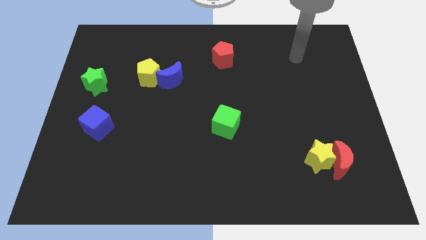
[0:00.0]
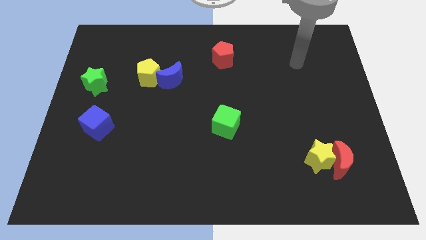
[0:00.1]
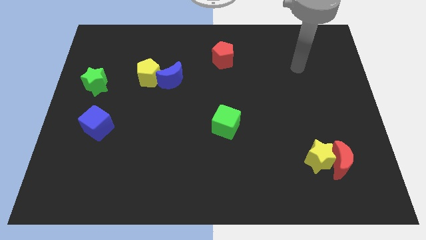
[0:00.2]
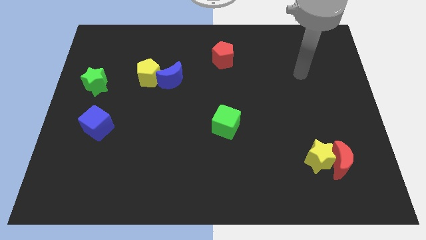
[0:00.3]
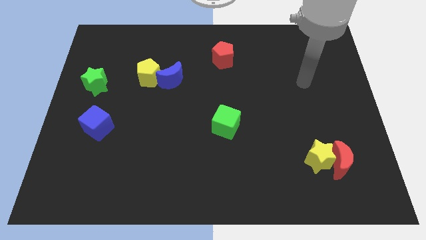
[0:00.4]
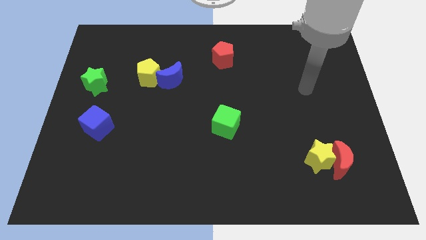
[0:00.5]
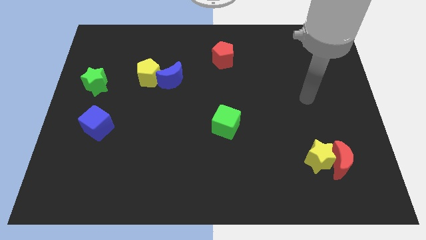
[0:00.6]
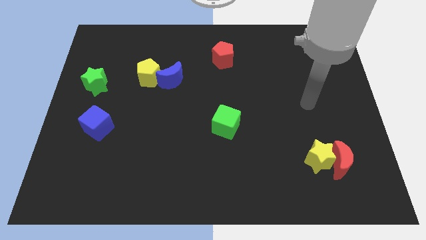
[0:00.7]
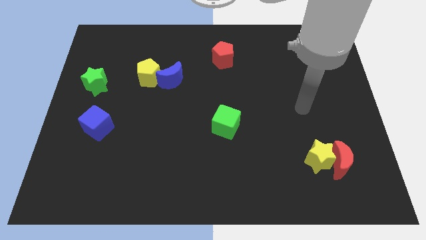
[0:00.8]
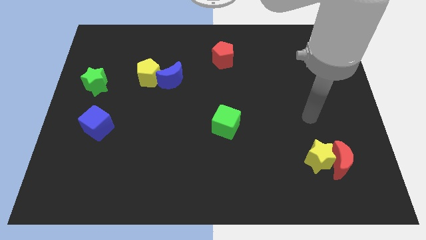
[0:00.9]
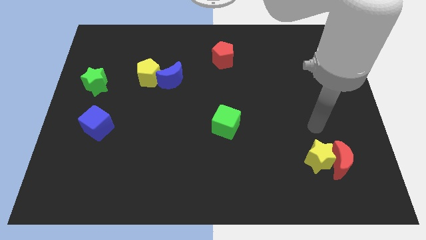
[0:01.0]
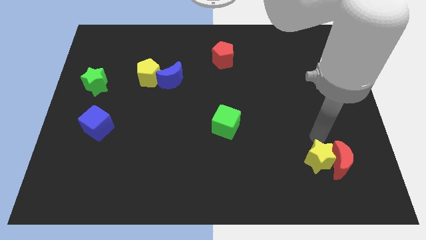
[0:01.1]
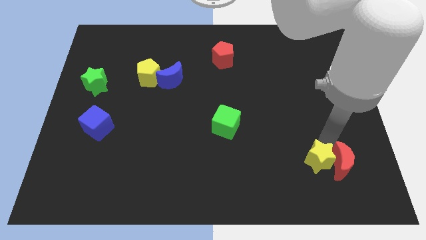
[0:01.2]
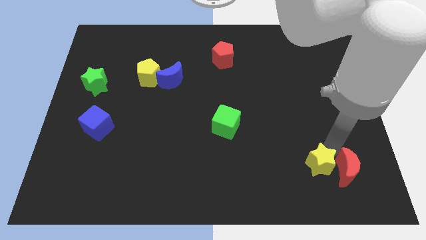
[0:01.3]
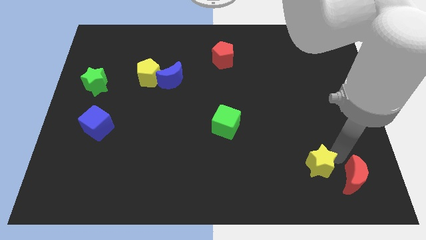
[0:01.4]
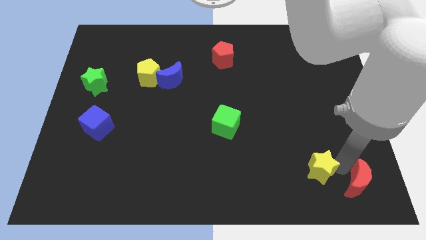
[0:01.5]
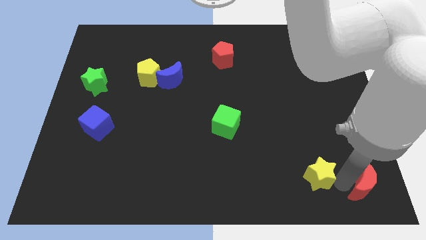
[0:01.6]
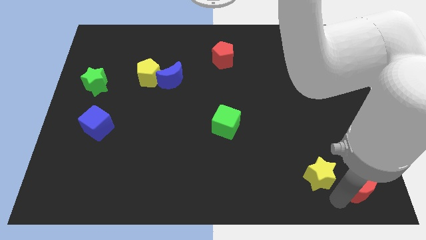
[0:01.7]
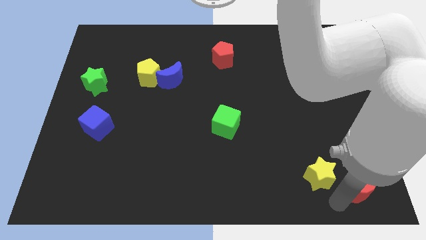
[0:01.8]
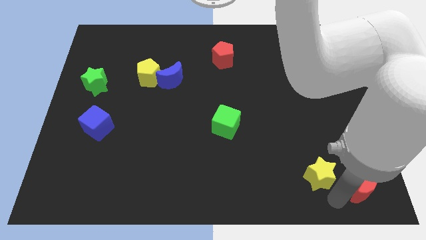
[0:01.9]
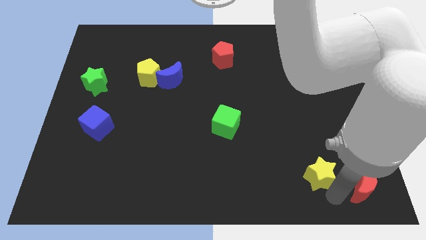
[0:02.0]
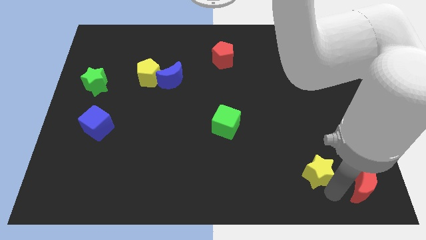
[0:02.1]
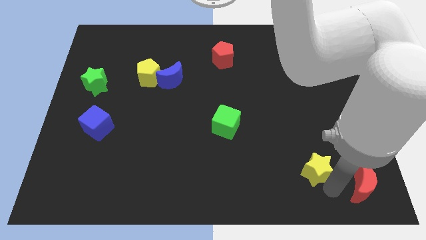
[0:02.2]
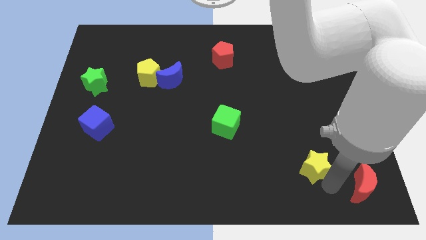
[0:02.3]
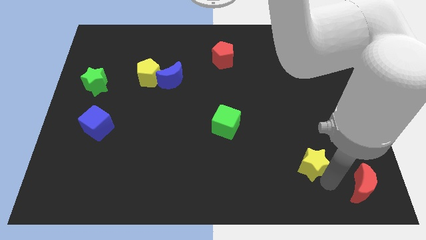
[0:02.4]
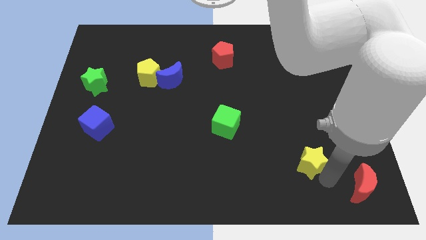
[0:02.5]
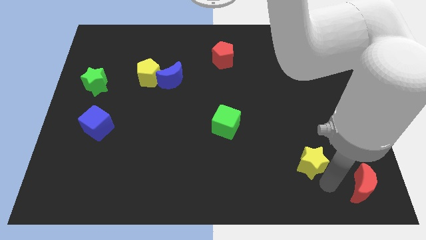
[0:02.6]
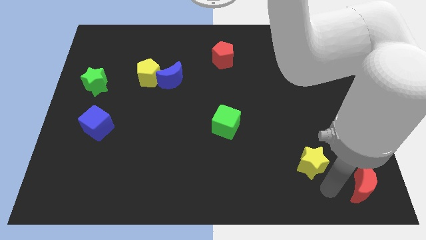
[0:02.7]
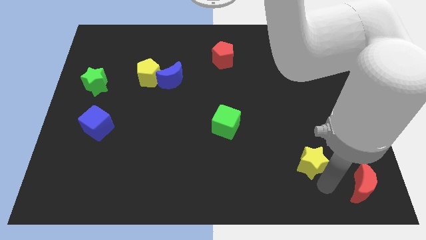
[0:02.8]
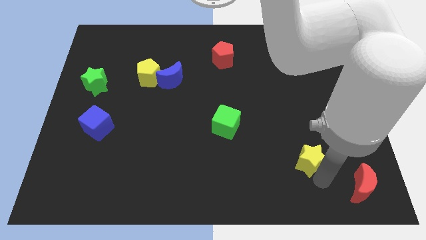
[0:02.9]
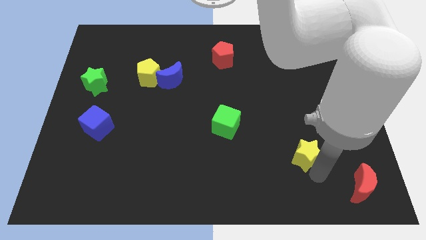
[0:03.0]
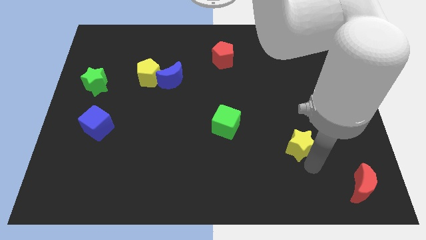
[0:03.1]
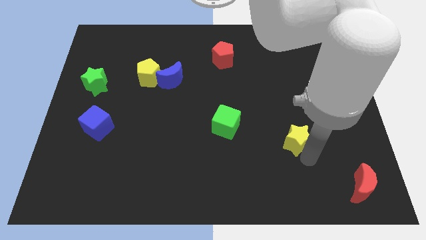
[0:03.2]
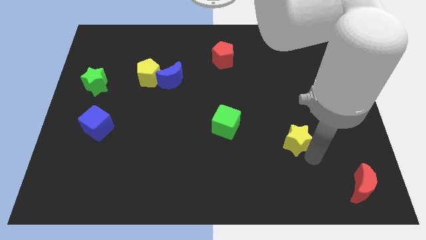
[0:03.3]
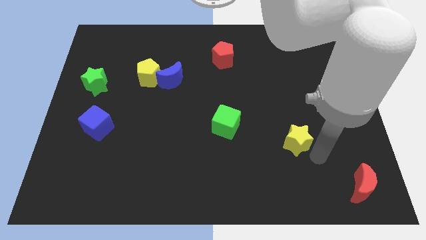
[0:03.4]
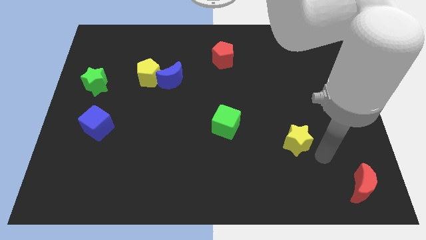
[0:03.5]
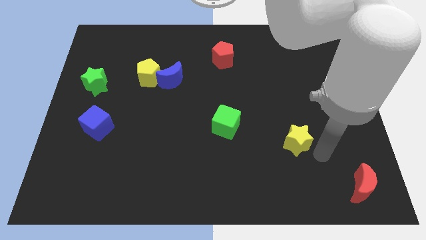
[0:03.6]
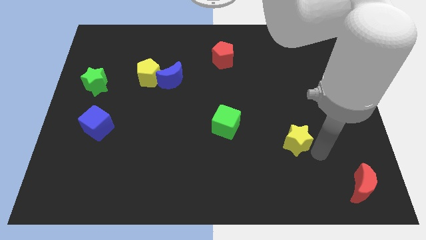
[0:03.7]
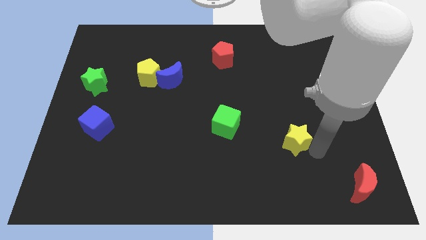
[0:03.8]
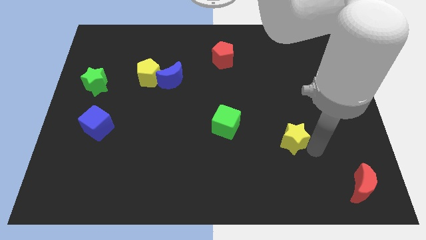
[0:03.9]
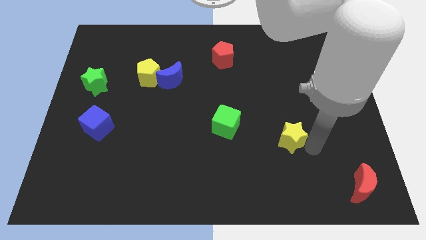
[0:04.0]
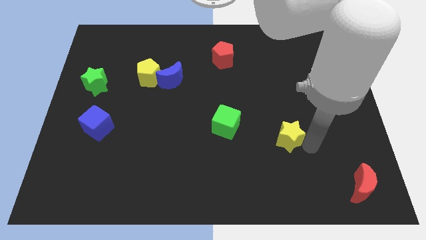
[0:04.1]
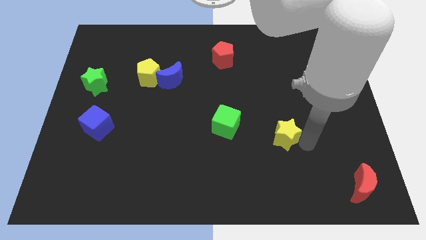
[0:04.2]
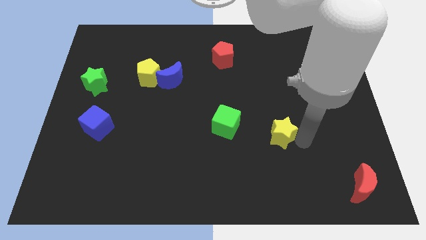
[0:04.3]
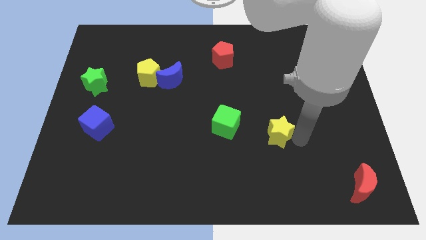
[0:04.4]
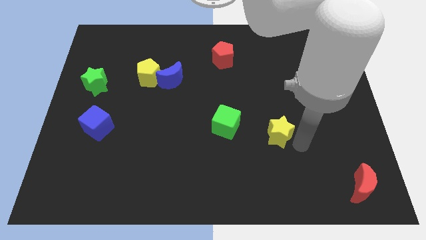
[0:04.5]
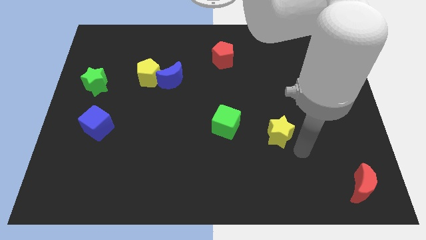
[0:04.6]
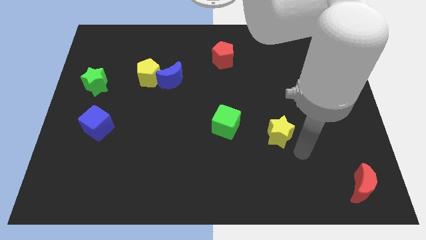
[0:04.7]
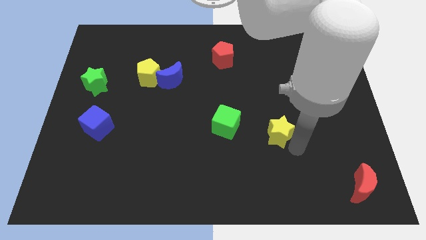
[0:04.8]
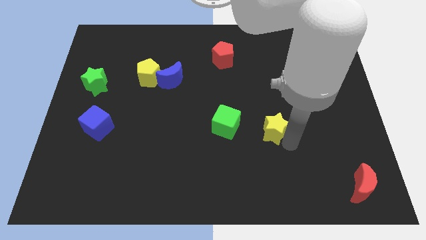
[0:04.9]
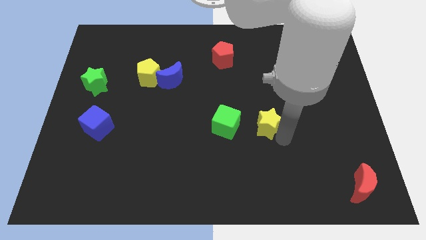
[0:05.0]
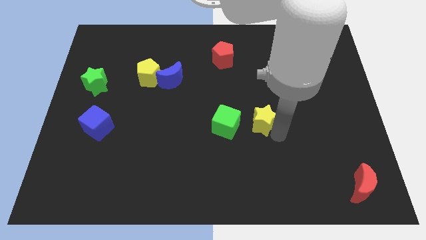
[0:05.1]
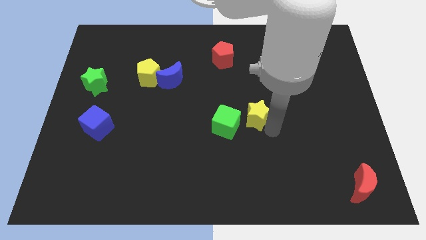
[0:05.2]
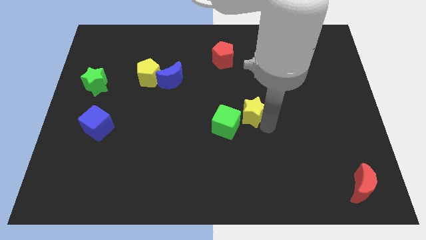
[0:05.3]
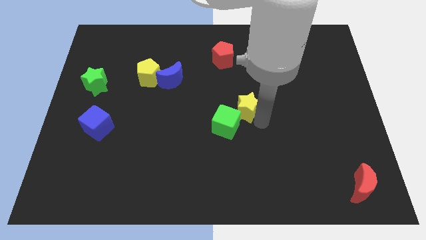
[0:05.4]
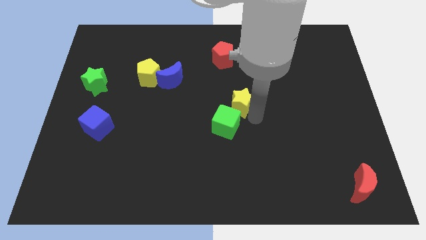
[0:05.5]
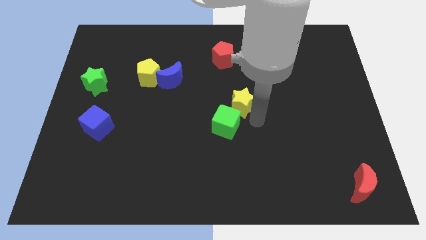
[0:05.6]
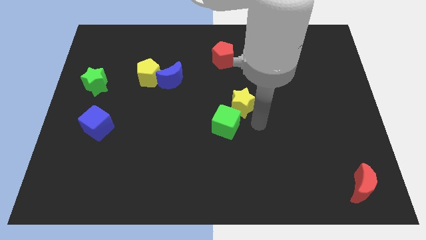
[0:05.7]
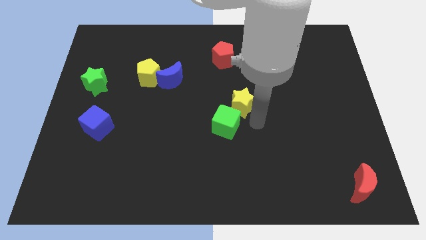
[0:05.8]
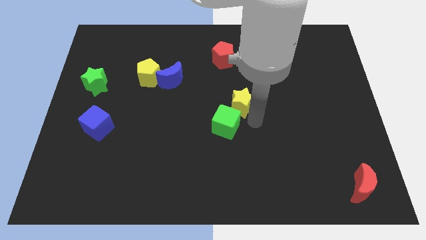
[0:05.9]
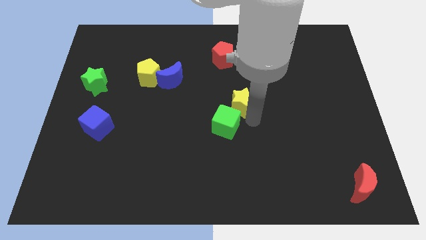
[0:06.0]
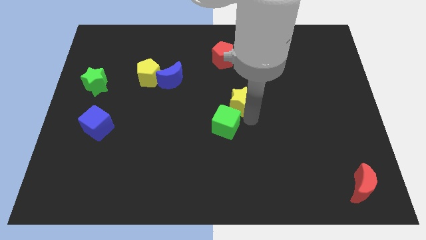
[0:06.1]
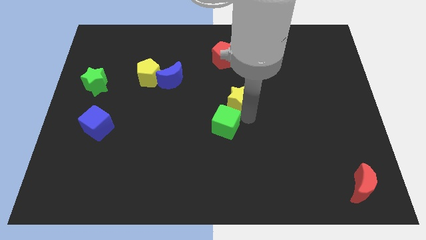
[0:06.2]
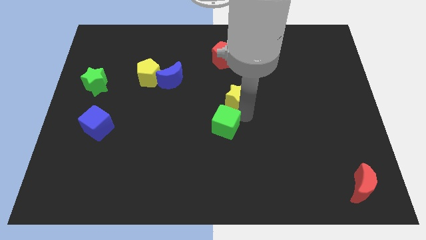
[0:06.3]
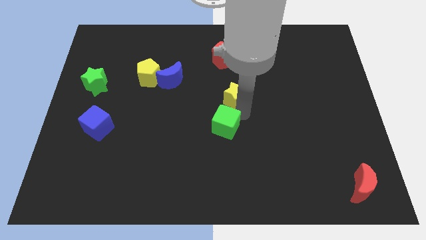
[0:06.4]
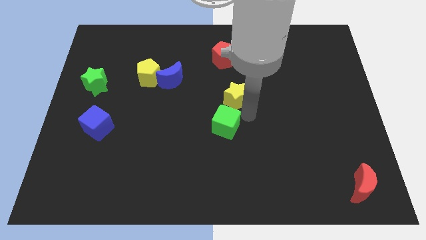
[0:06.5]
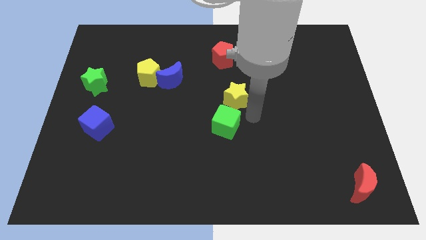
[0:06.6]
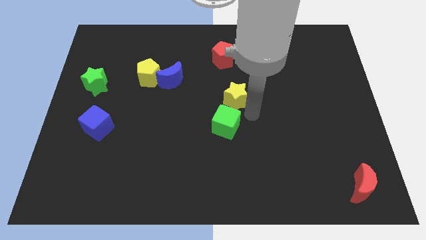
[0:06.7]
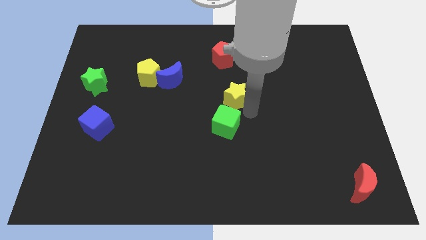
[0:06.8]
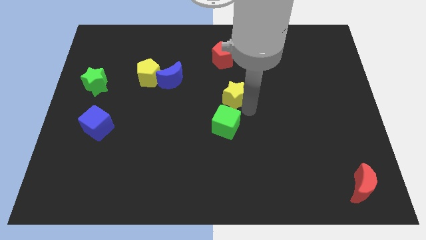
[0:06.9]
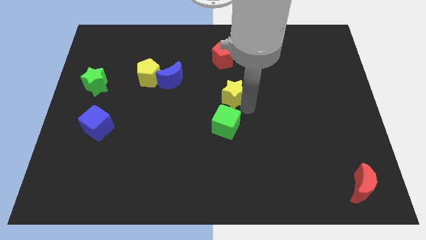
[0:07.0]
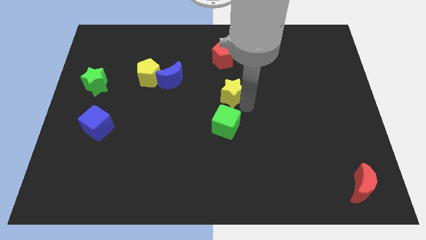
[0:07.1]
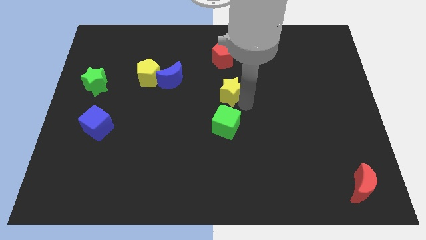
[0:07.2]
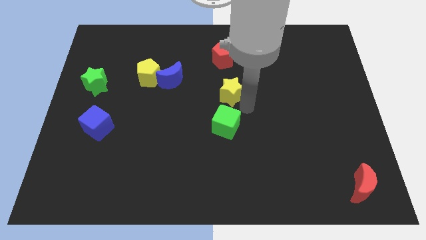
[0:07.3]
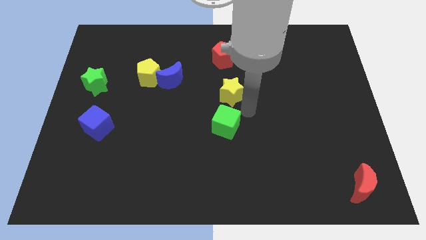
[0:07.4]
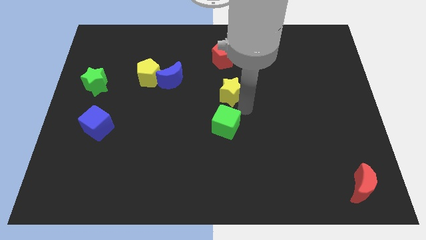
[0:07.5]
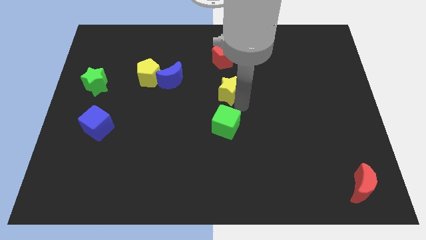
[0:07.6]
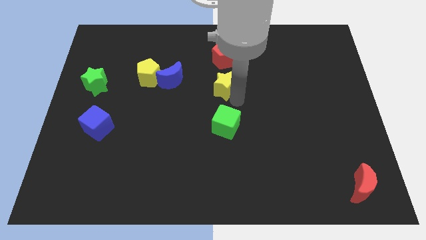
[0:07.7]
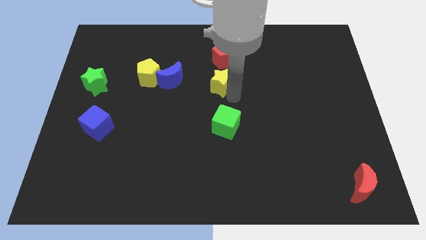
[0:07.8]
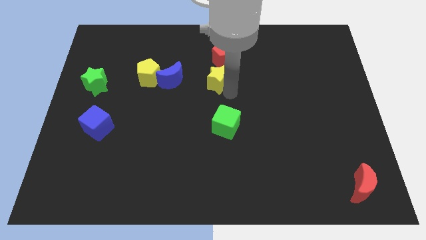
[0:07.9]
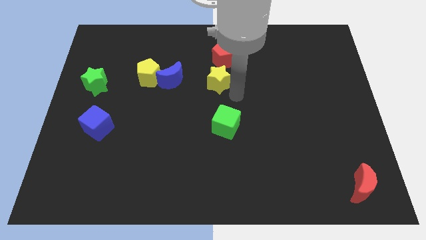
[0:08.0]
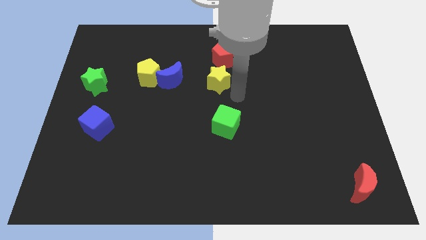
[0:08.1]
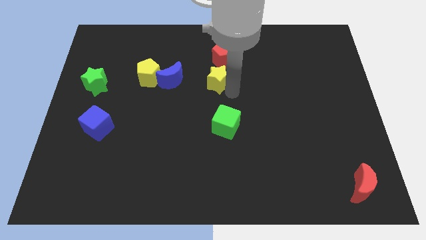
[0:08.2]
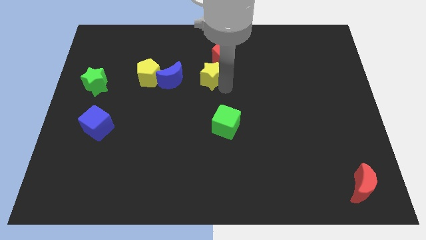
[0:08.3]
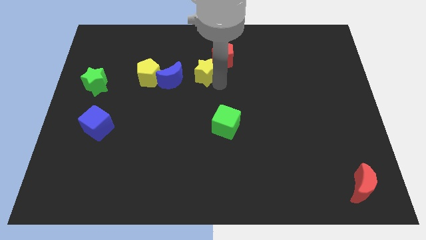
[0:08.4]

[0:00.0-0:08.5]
put the yellow star diagonally up and to the right of the blue moon
